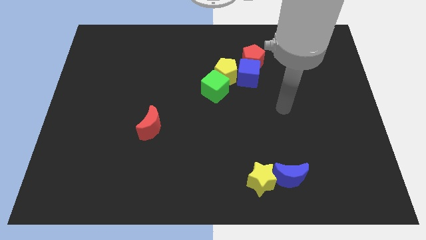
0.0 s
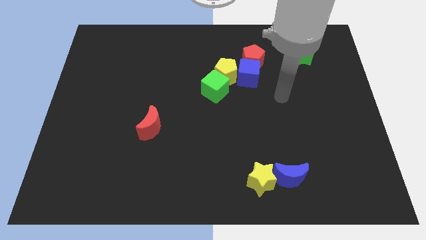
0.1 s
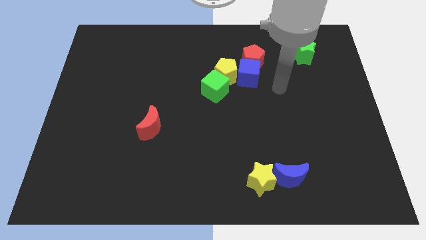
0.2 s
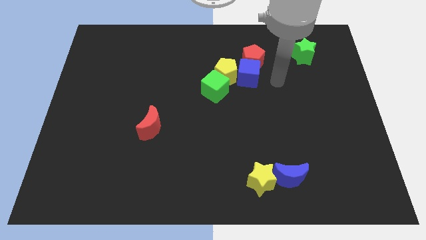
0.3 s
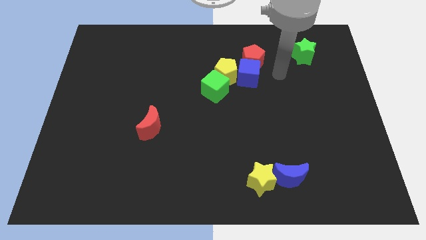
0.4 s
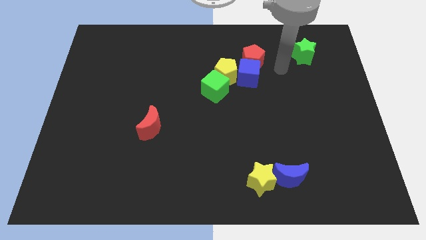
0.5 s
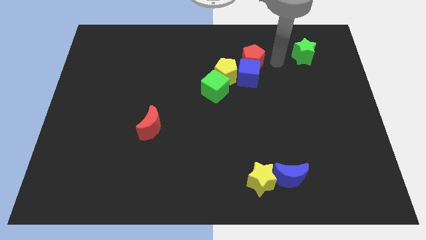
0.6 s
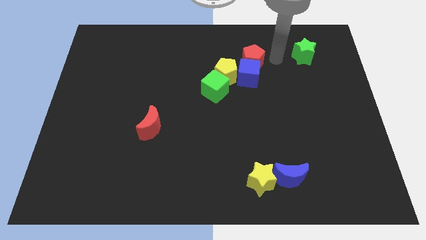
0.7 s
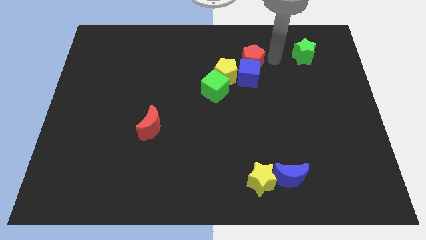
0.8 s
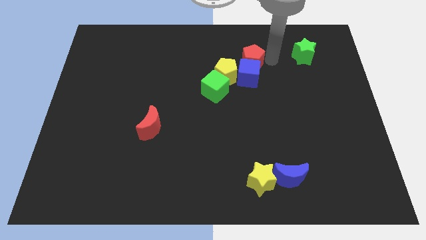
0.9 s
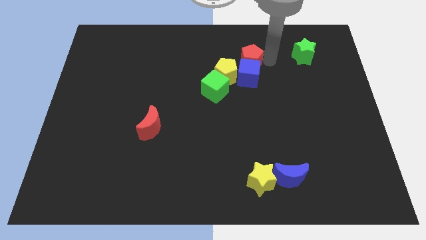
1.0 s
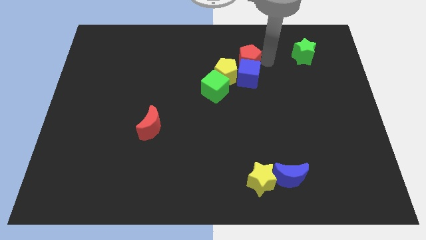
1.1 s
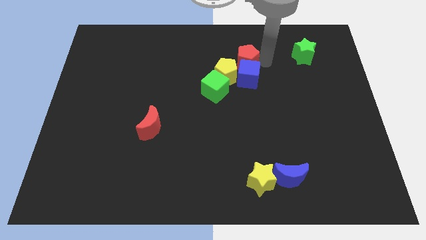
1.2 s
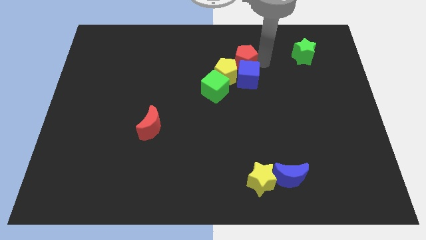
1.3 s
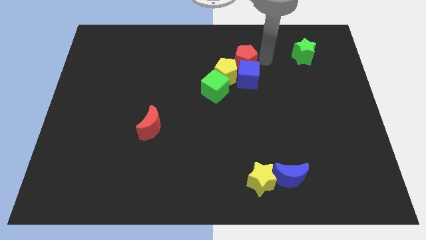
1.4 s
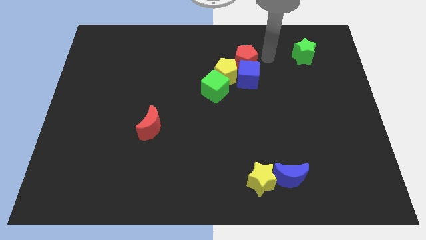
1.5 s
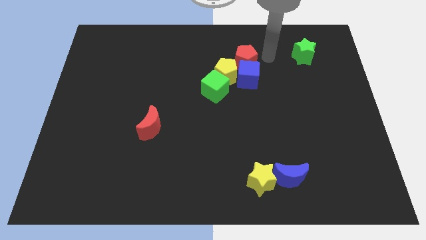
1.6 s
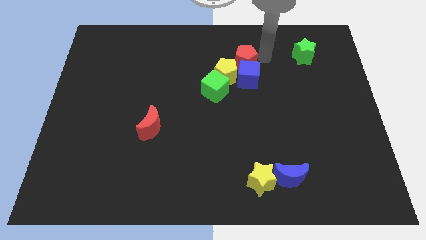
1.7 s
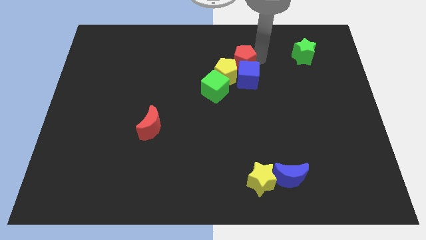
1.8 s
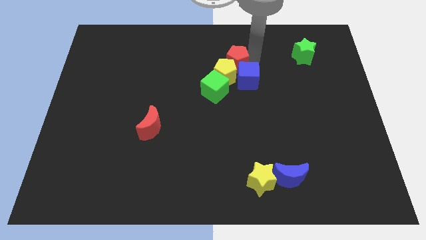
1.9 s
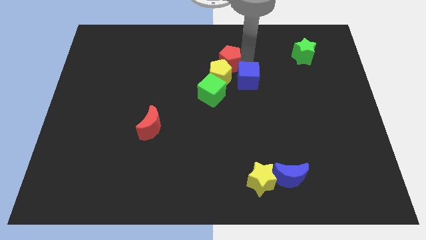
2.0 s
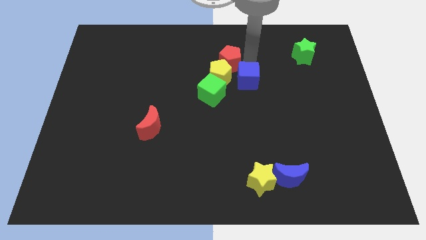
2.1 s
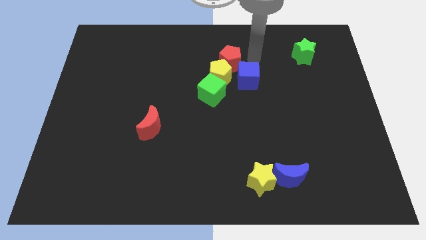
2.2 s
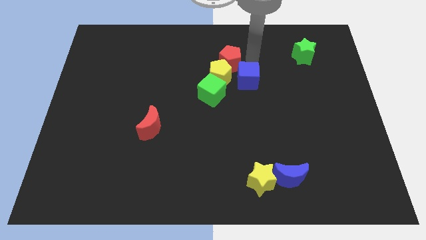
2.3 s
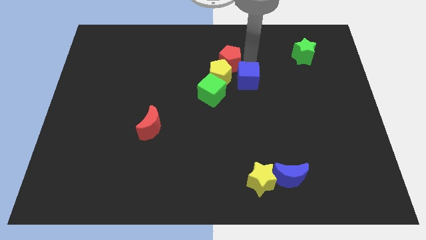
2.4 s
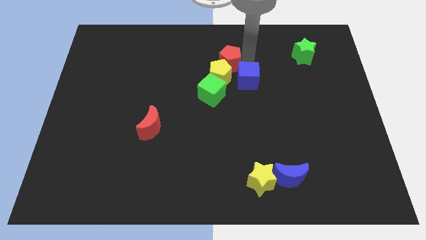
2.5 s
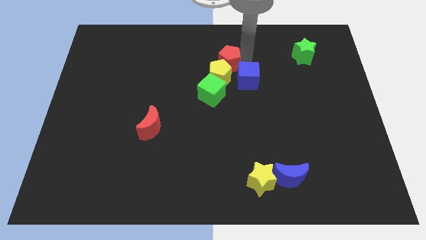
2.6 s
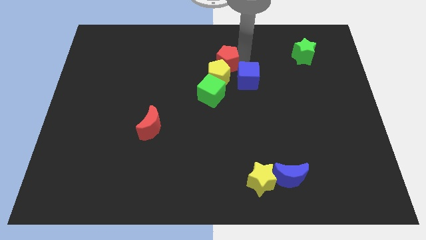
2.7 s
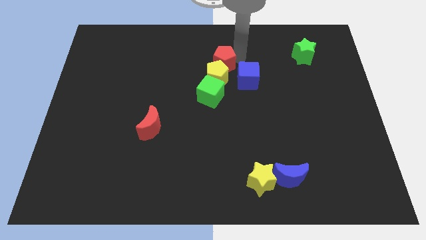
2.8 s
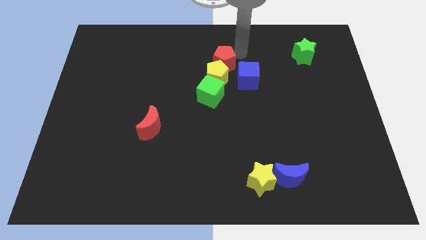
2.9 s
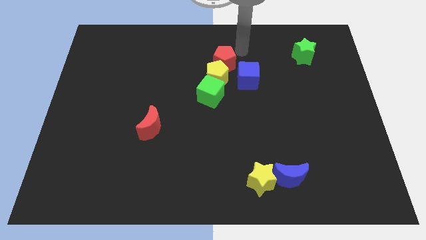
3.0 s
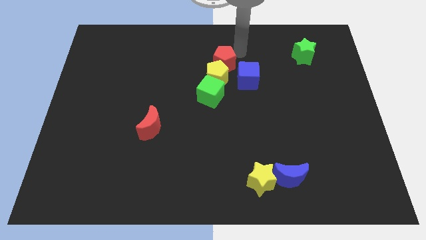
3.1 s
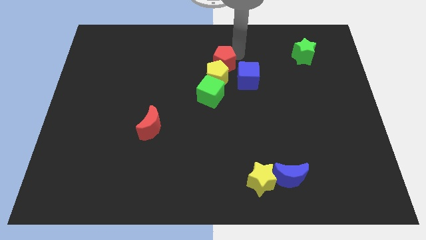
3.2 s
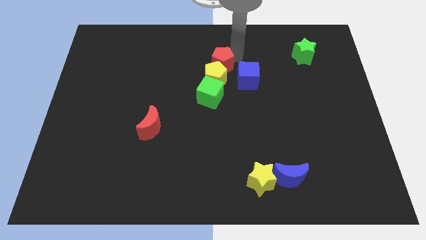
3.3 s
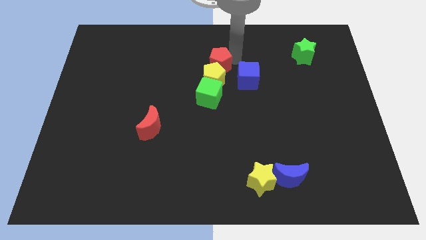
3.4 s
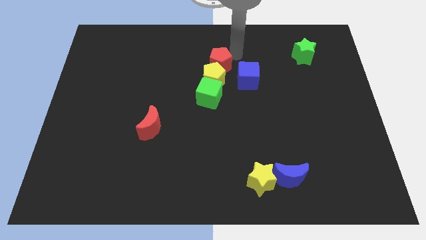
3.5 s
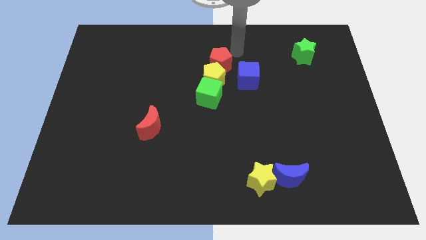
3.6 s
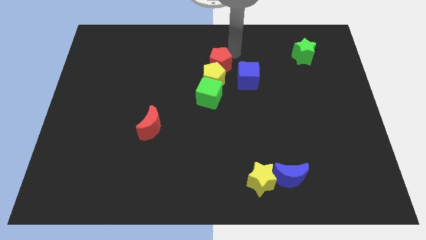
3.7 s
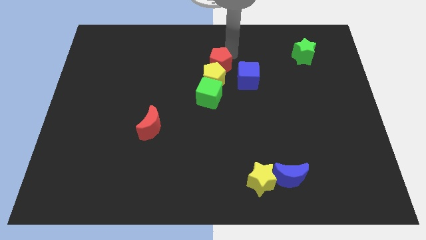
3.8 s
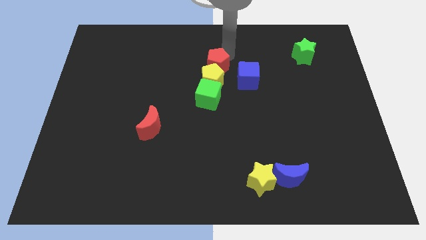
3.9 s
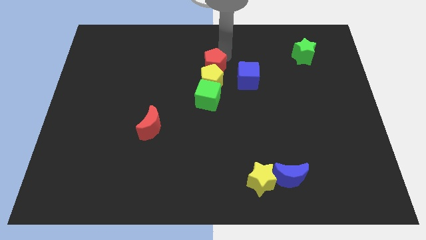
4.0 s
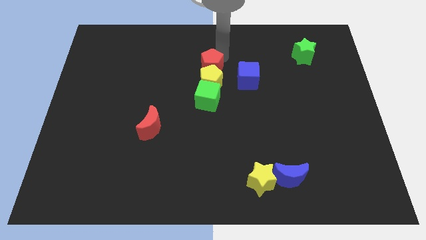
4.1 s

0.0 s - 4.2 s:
push the red pentagon somewhat downwards and left diagonally

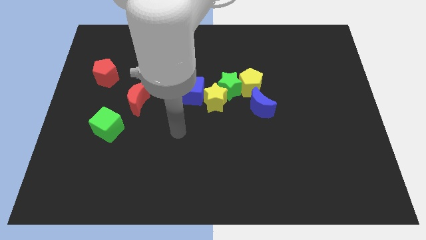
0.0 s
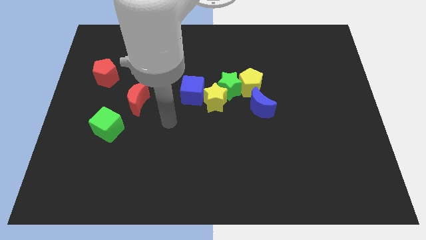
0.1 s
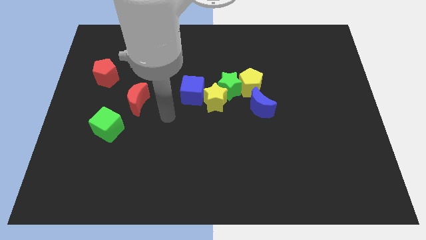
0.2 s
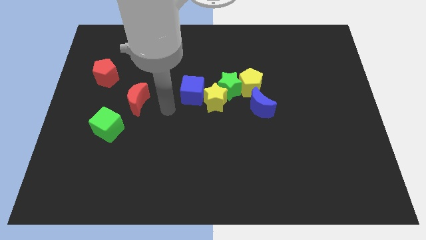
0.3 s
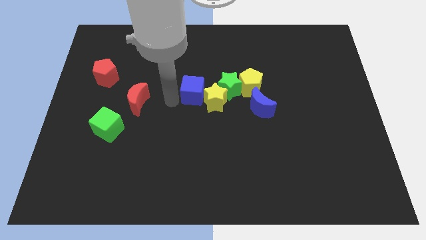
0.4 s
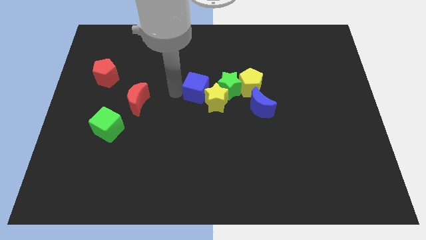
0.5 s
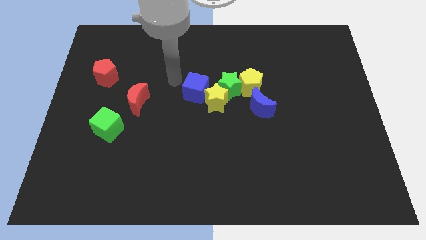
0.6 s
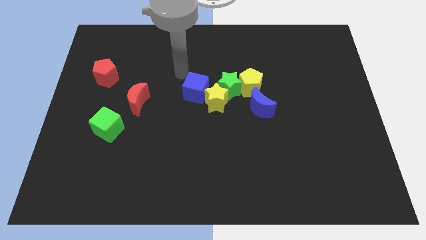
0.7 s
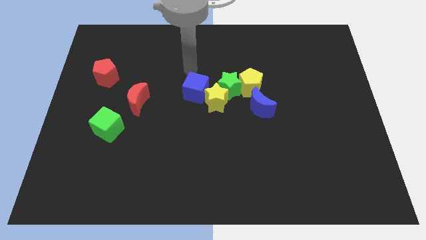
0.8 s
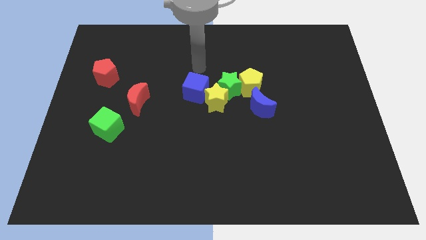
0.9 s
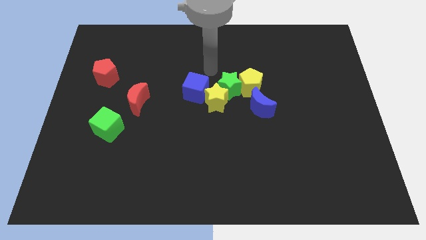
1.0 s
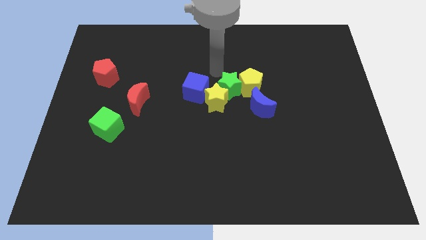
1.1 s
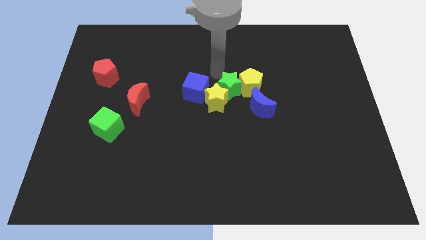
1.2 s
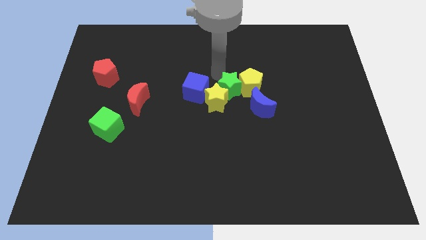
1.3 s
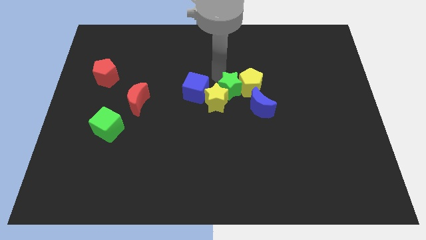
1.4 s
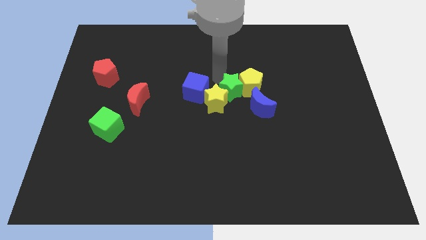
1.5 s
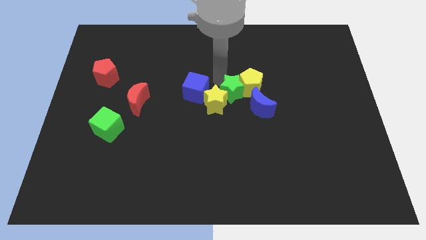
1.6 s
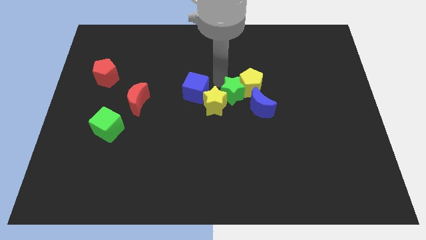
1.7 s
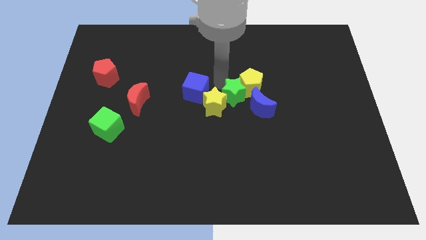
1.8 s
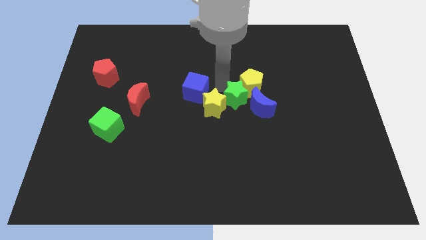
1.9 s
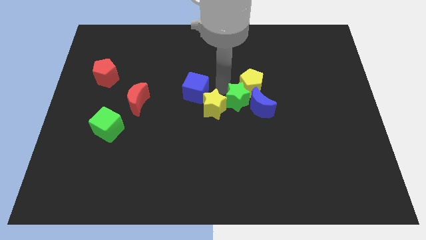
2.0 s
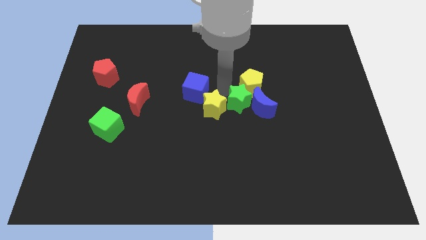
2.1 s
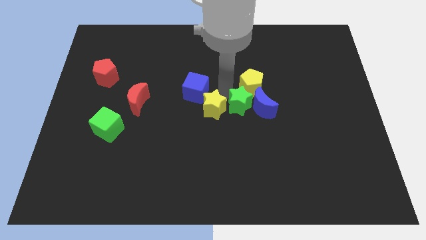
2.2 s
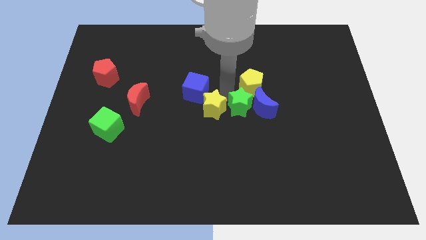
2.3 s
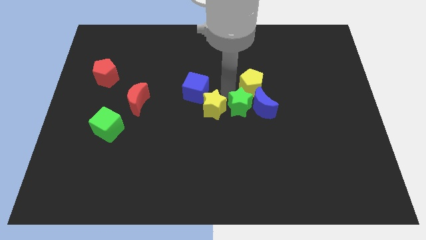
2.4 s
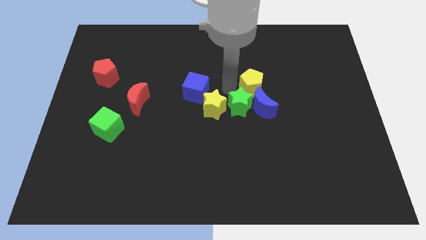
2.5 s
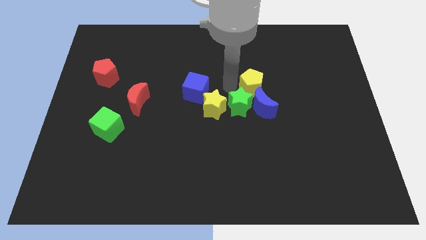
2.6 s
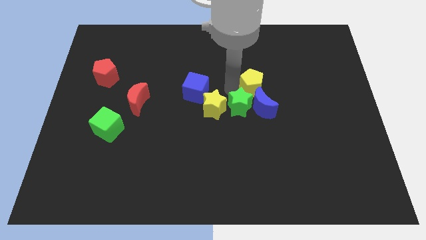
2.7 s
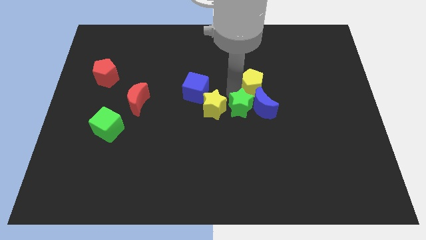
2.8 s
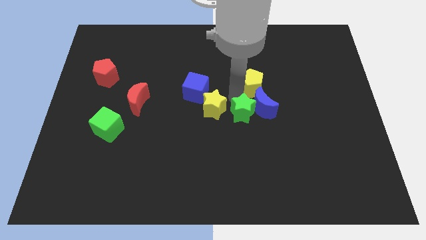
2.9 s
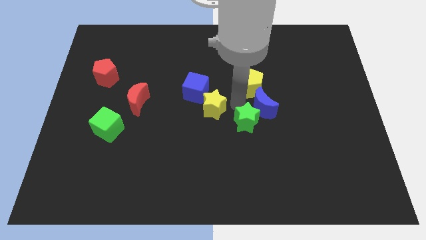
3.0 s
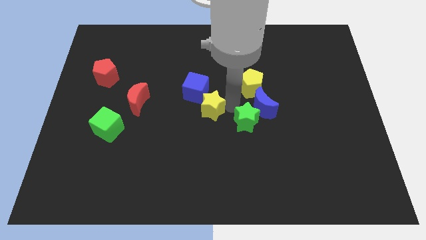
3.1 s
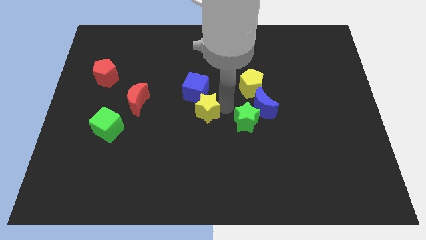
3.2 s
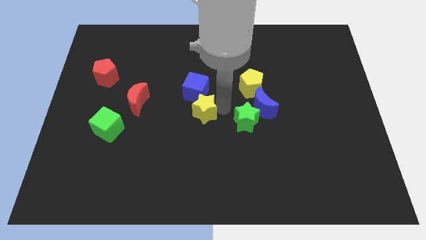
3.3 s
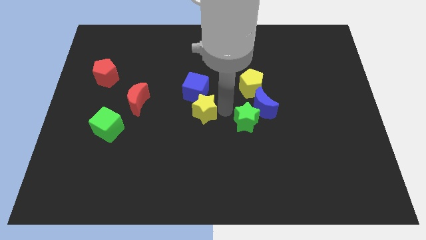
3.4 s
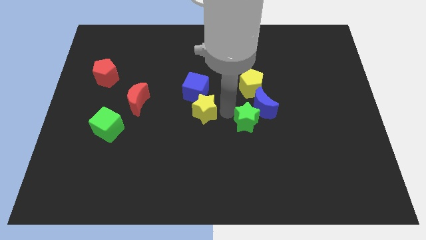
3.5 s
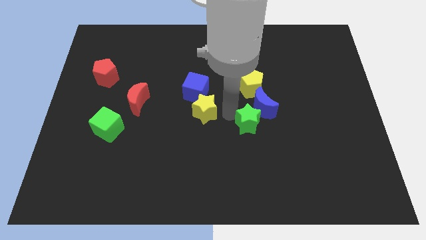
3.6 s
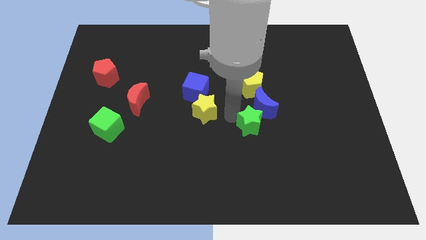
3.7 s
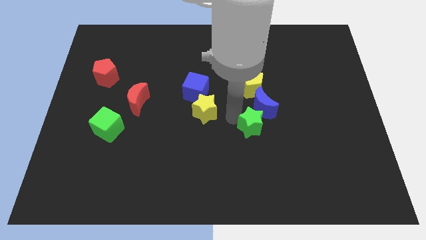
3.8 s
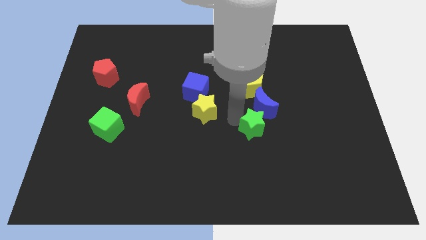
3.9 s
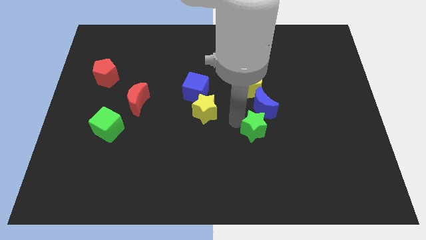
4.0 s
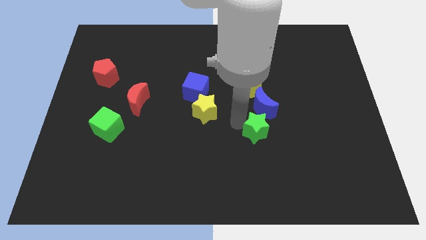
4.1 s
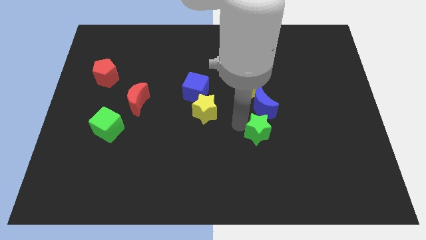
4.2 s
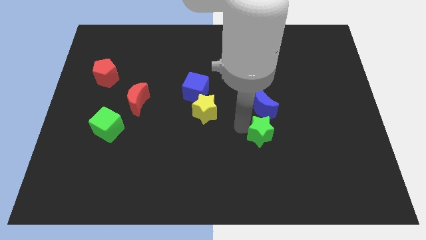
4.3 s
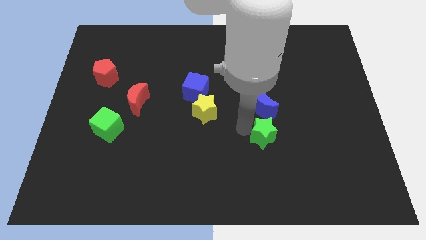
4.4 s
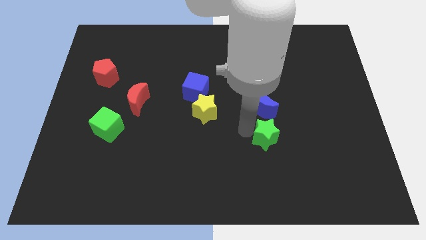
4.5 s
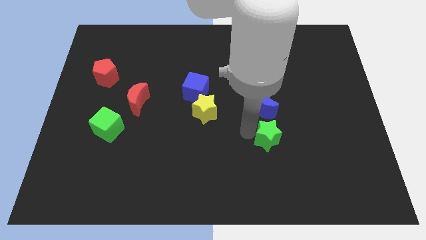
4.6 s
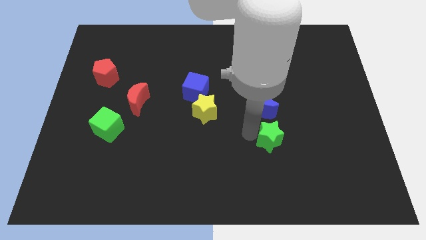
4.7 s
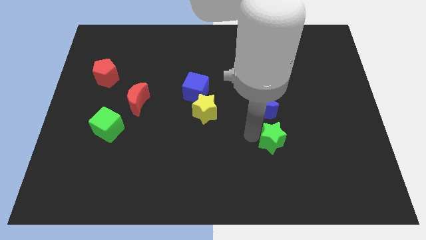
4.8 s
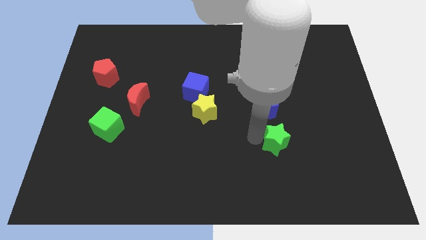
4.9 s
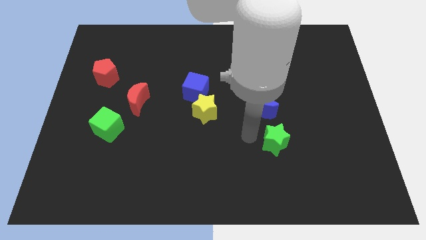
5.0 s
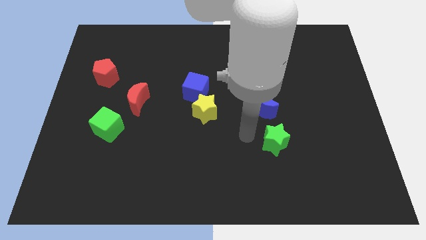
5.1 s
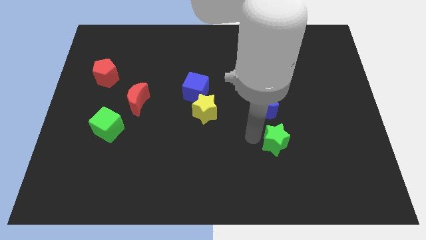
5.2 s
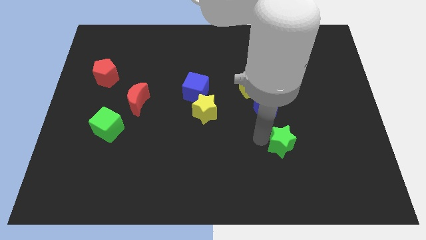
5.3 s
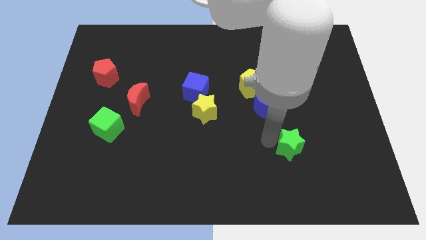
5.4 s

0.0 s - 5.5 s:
slide the green star diagonally downwards and to the right
